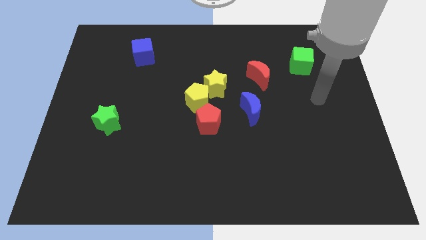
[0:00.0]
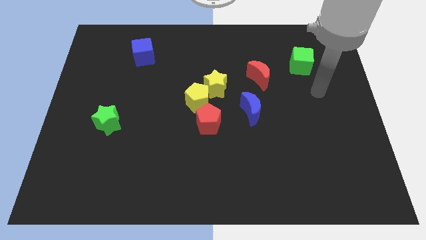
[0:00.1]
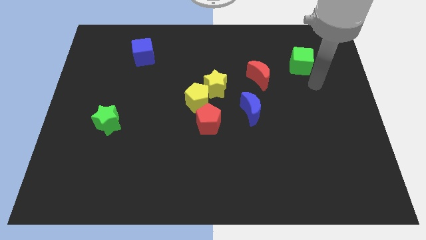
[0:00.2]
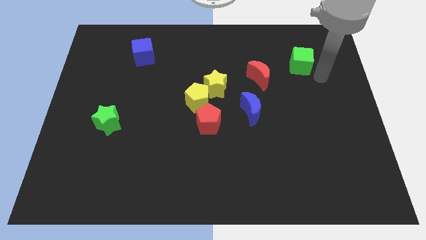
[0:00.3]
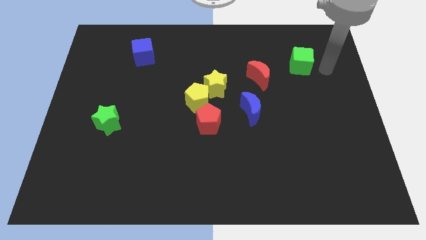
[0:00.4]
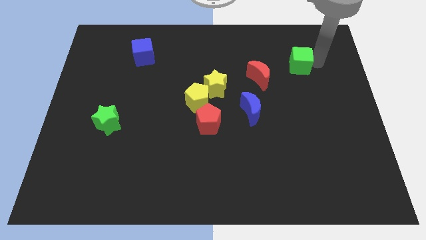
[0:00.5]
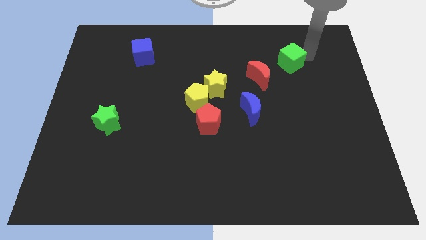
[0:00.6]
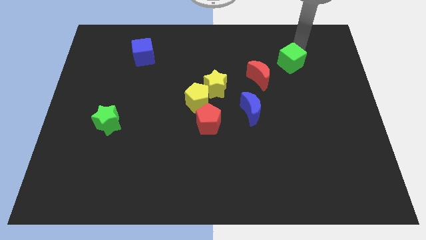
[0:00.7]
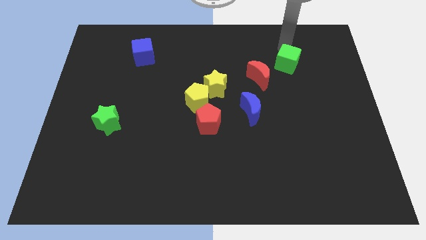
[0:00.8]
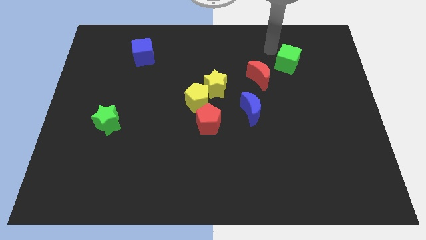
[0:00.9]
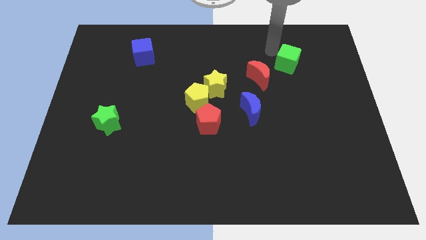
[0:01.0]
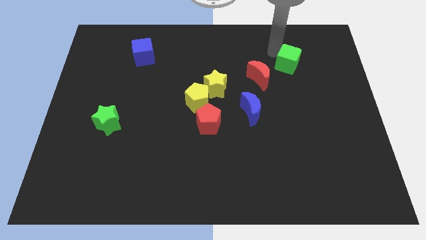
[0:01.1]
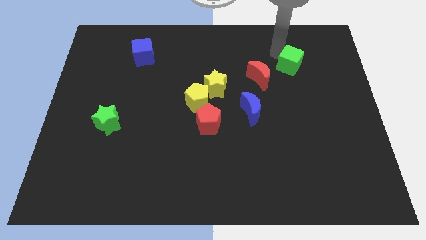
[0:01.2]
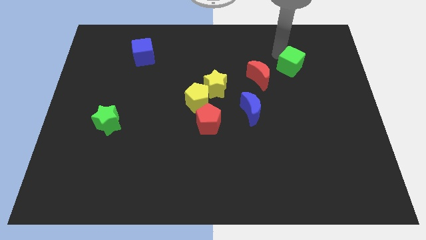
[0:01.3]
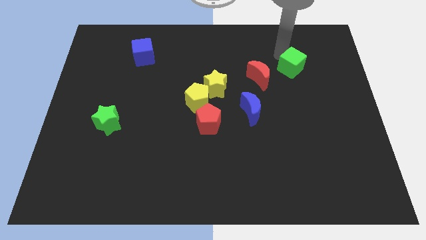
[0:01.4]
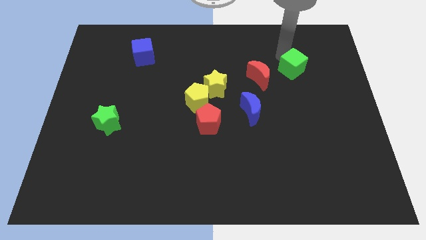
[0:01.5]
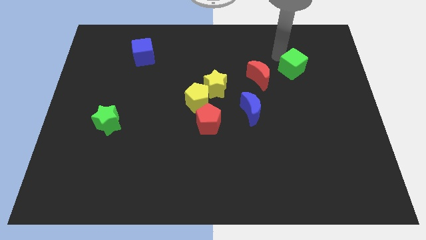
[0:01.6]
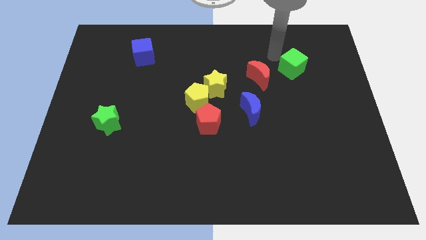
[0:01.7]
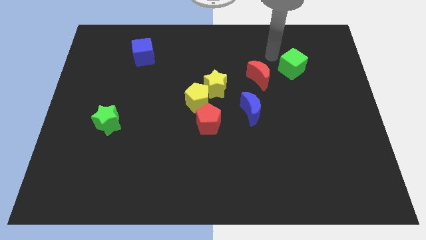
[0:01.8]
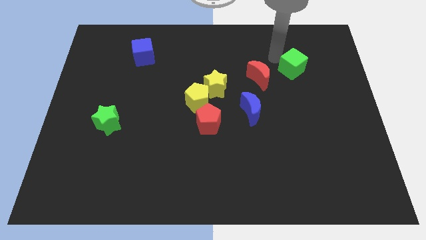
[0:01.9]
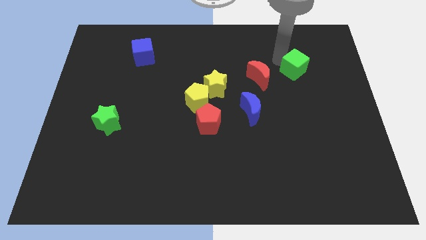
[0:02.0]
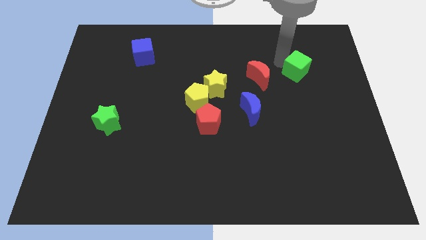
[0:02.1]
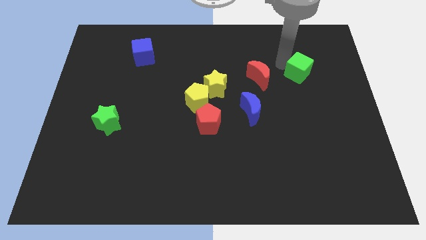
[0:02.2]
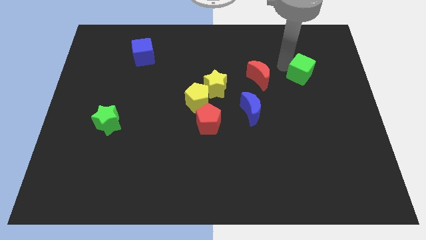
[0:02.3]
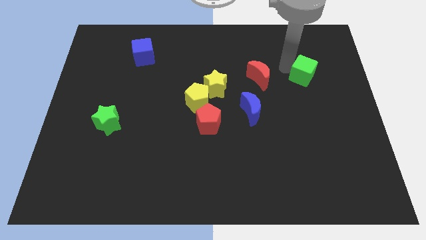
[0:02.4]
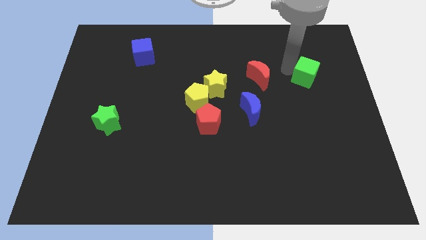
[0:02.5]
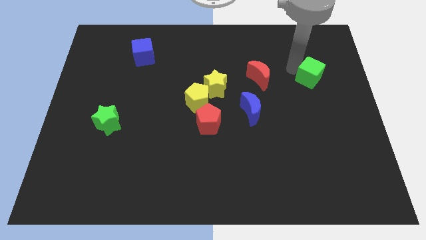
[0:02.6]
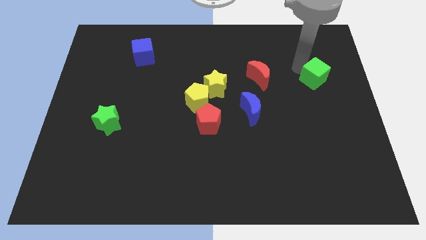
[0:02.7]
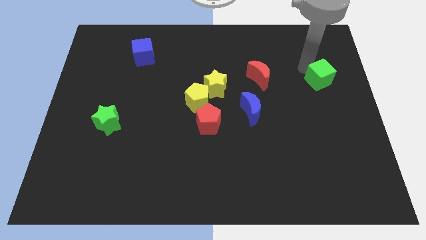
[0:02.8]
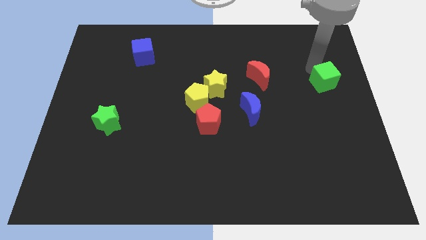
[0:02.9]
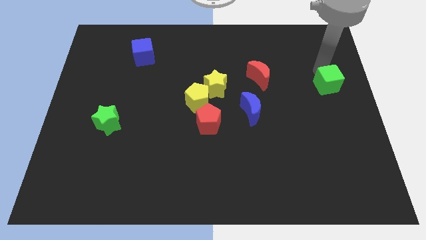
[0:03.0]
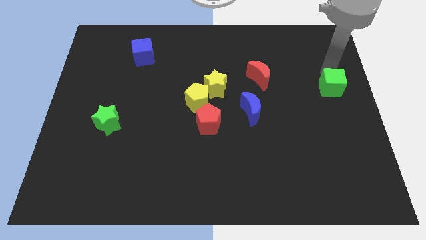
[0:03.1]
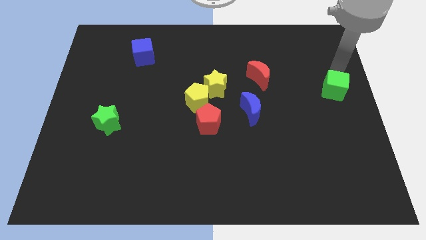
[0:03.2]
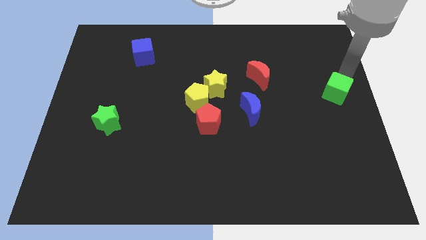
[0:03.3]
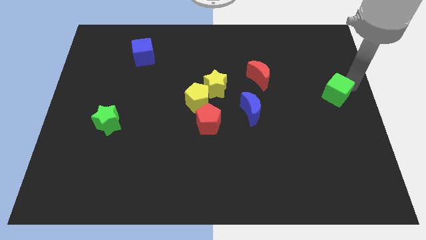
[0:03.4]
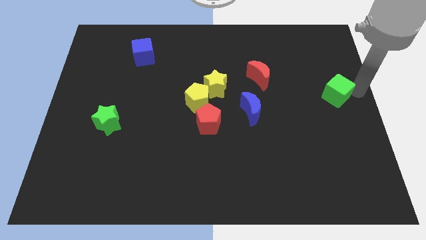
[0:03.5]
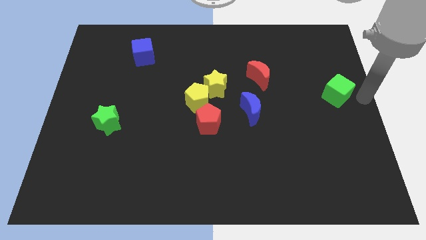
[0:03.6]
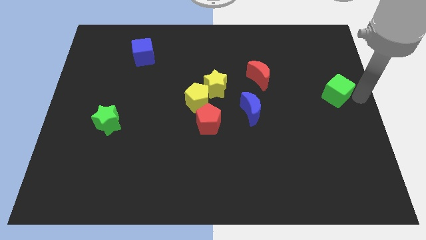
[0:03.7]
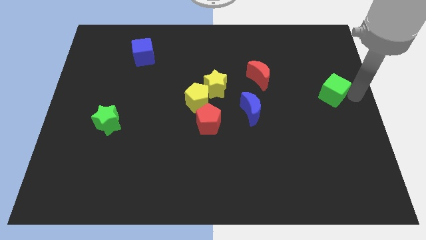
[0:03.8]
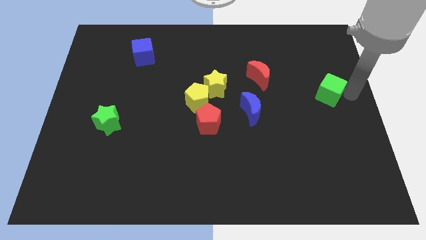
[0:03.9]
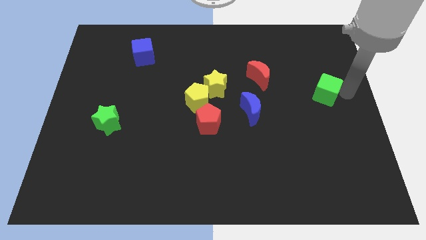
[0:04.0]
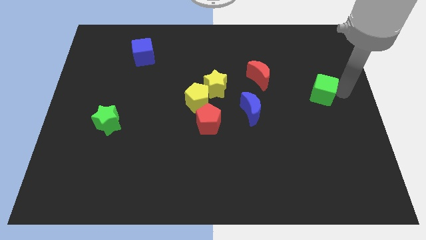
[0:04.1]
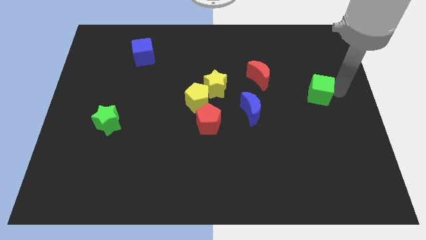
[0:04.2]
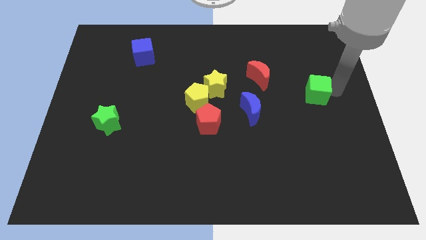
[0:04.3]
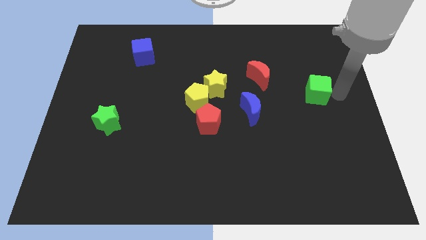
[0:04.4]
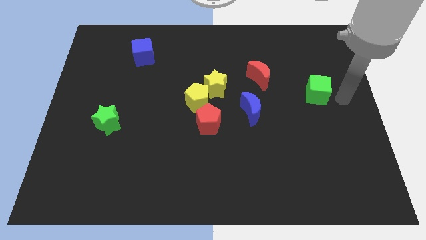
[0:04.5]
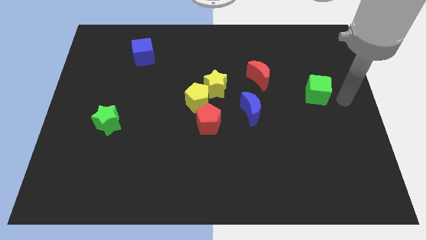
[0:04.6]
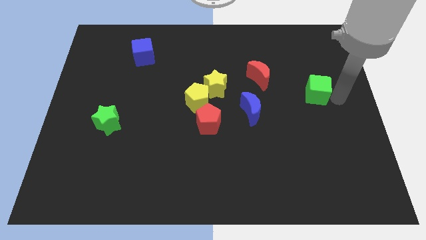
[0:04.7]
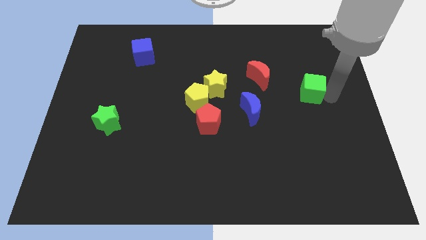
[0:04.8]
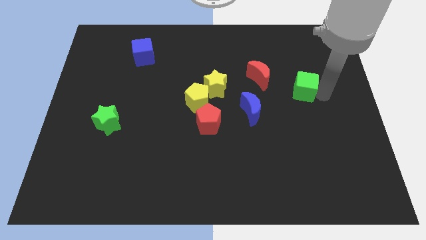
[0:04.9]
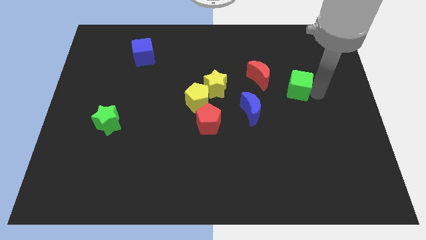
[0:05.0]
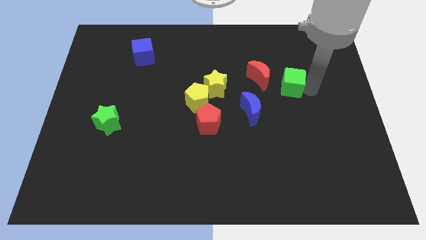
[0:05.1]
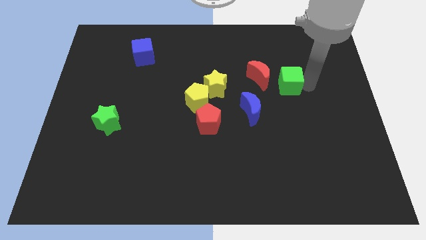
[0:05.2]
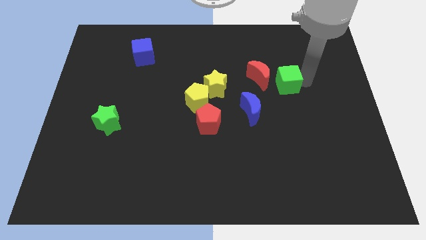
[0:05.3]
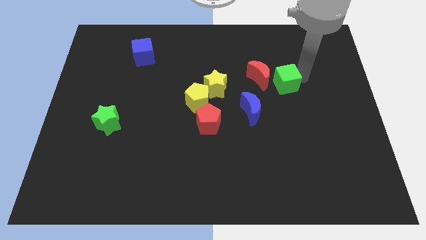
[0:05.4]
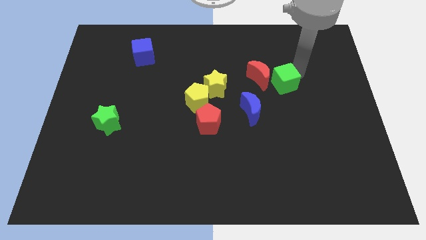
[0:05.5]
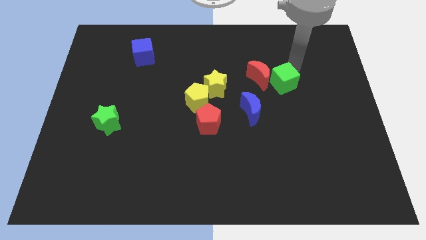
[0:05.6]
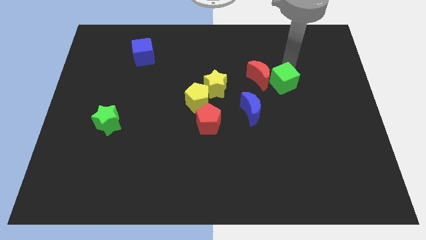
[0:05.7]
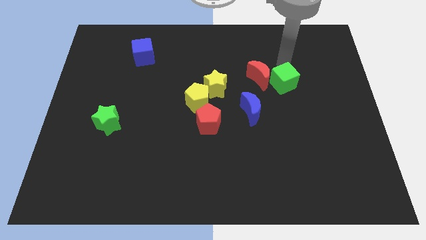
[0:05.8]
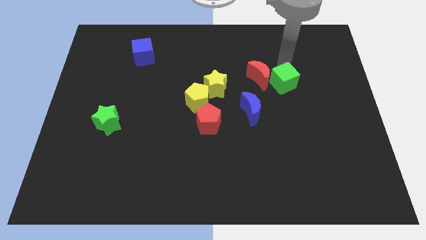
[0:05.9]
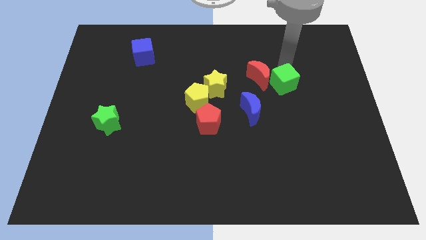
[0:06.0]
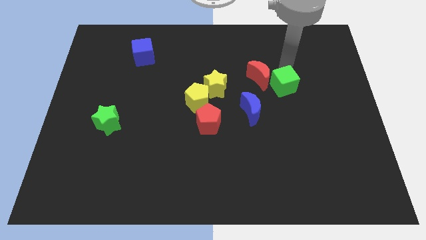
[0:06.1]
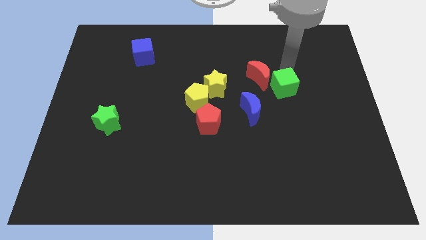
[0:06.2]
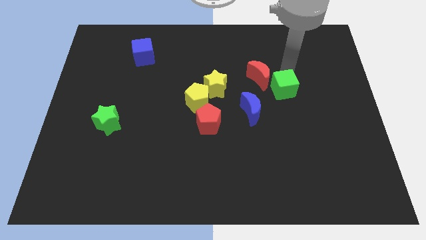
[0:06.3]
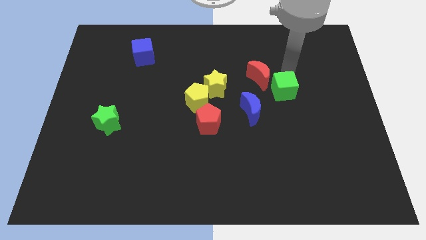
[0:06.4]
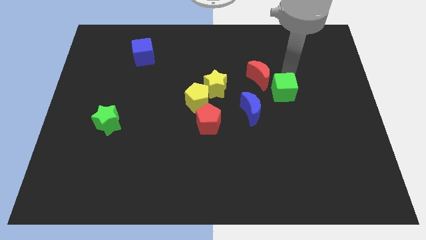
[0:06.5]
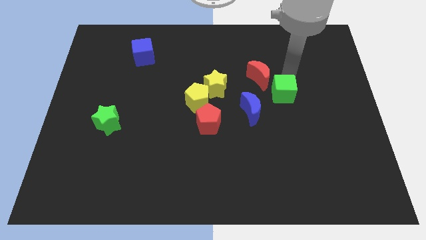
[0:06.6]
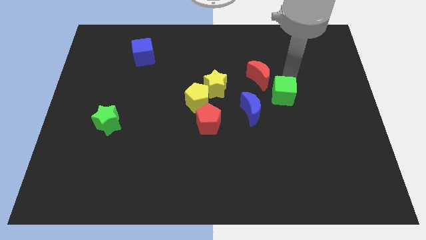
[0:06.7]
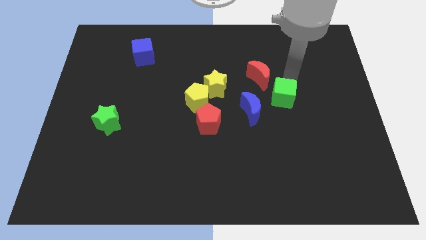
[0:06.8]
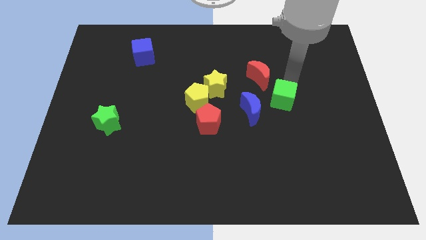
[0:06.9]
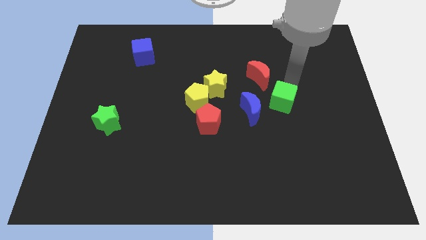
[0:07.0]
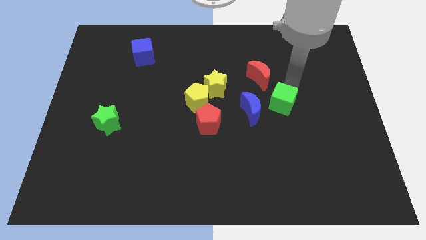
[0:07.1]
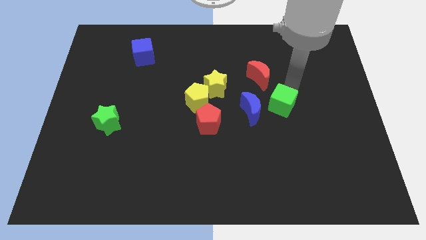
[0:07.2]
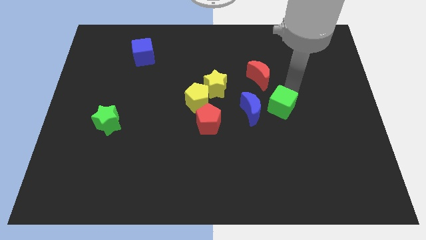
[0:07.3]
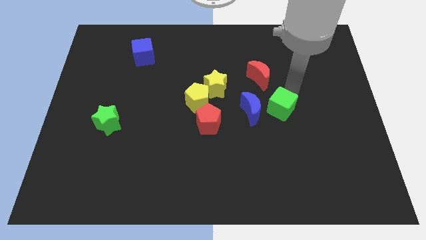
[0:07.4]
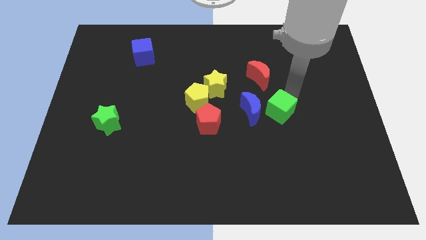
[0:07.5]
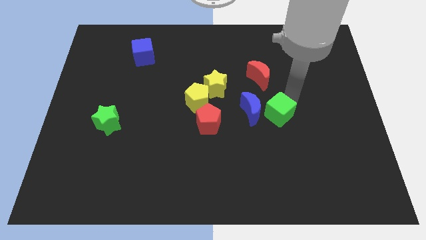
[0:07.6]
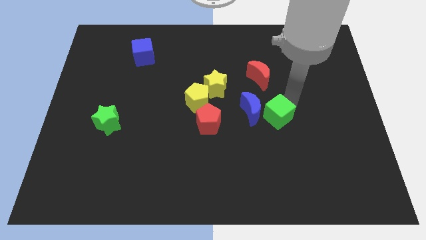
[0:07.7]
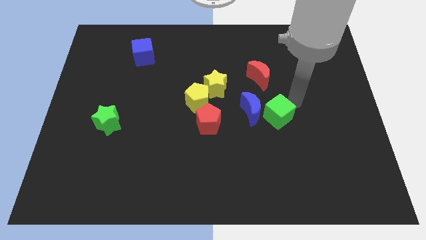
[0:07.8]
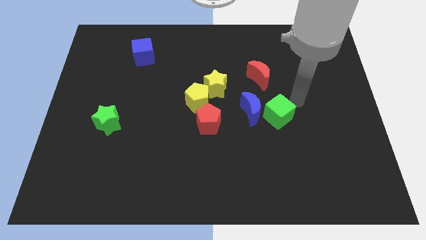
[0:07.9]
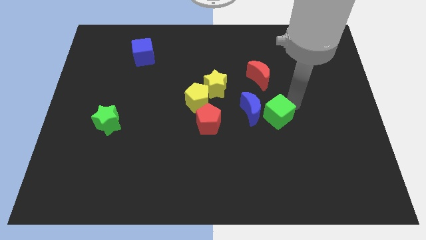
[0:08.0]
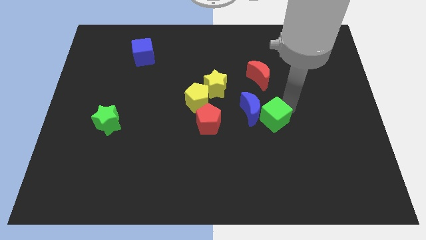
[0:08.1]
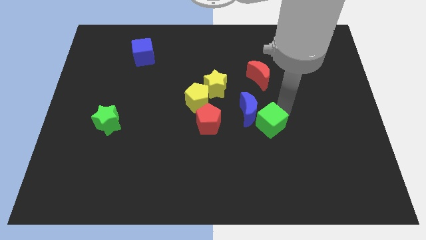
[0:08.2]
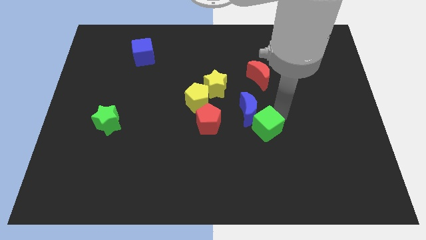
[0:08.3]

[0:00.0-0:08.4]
push the green cube down and then to the left
